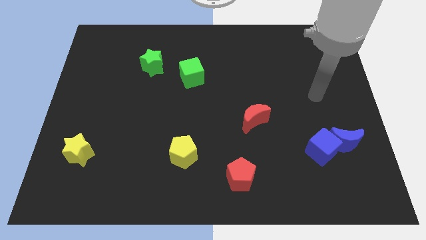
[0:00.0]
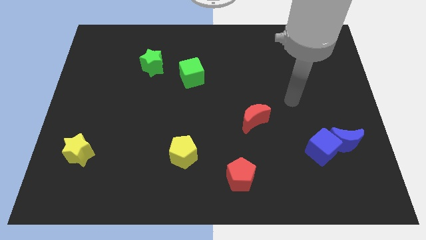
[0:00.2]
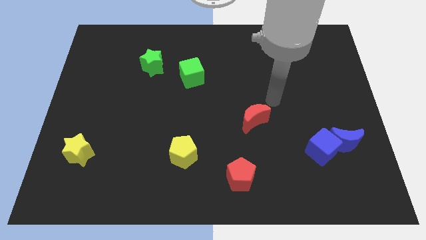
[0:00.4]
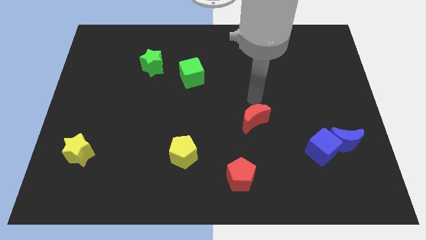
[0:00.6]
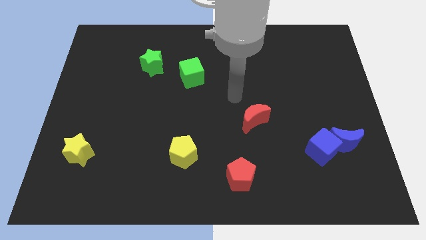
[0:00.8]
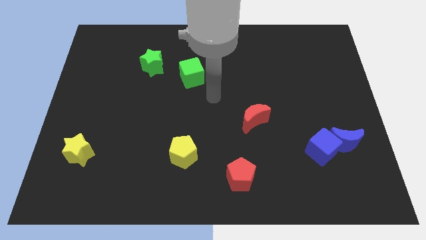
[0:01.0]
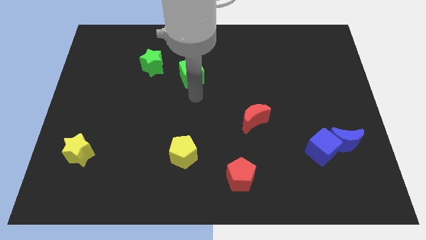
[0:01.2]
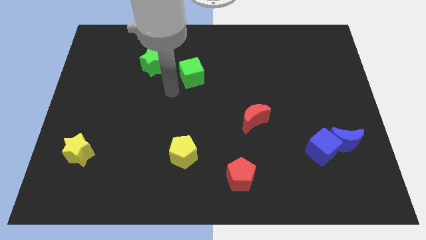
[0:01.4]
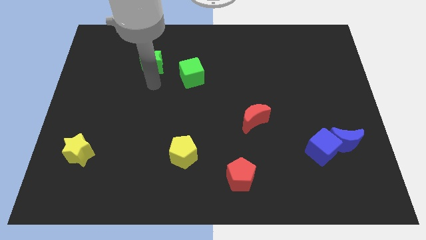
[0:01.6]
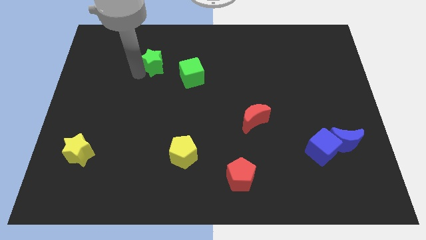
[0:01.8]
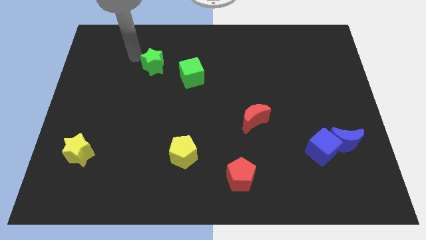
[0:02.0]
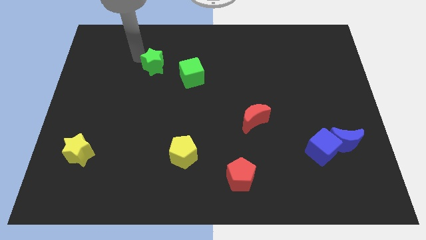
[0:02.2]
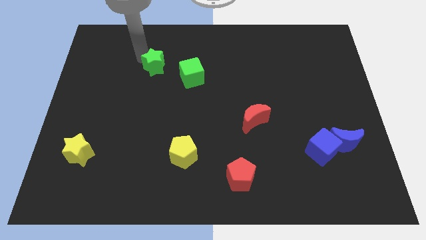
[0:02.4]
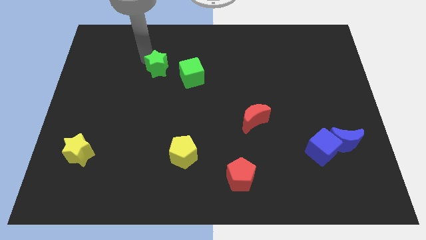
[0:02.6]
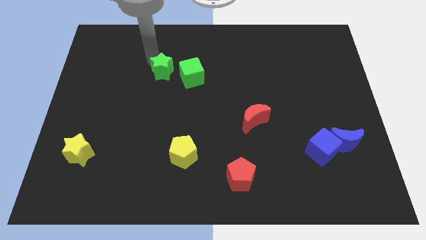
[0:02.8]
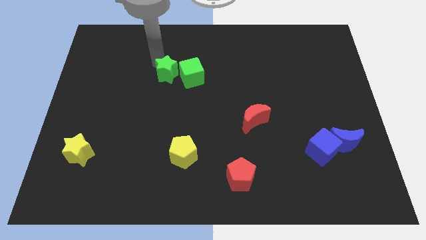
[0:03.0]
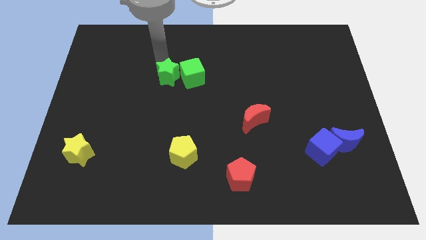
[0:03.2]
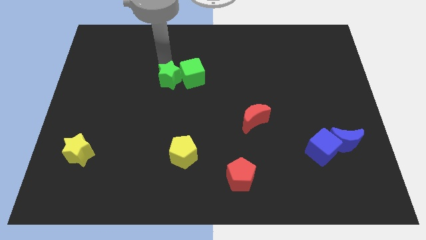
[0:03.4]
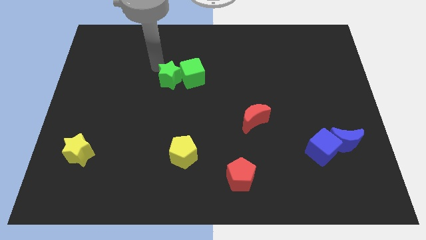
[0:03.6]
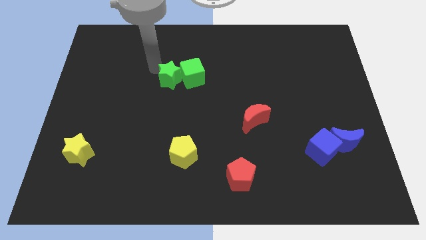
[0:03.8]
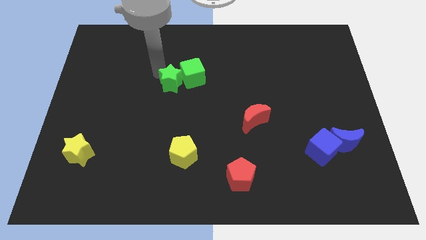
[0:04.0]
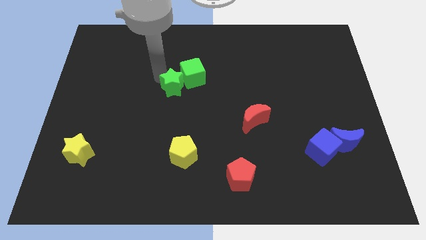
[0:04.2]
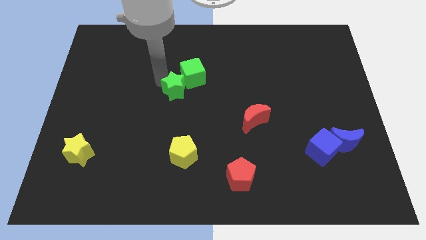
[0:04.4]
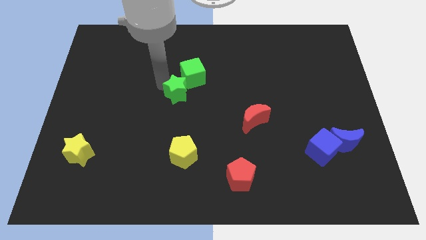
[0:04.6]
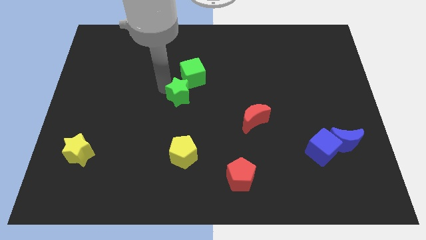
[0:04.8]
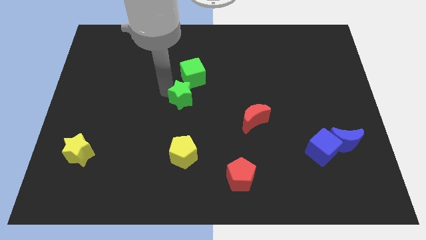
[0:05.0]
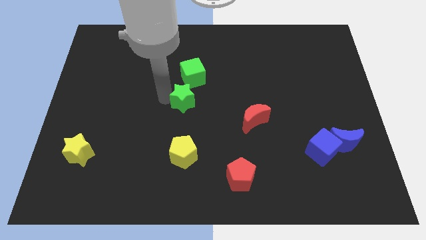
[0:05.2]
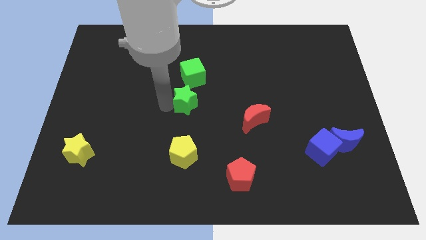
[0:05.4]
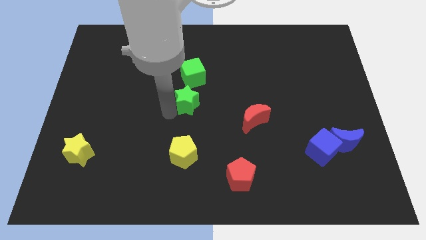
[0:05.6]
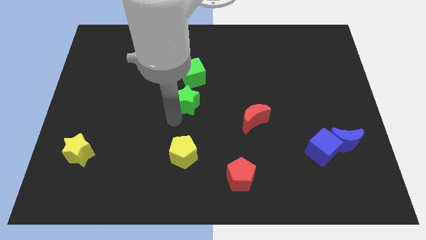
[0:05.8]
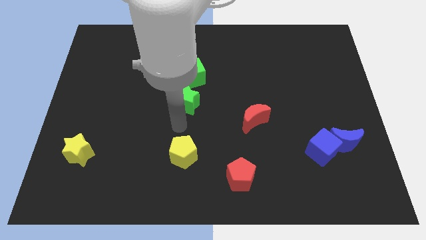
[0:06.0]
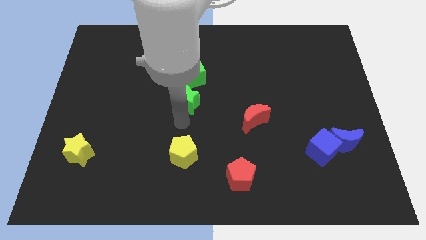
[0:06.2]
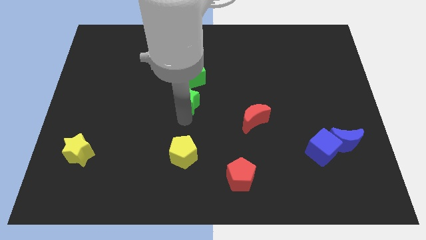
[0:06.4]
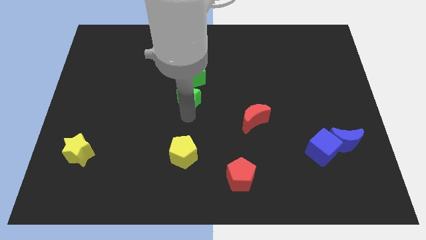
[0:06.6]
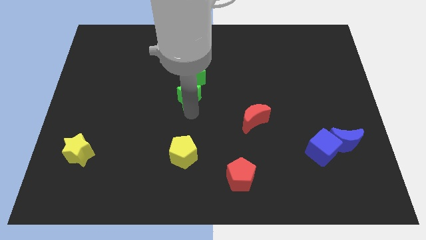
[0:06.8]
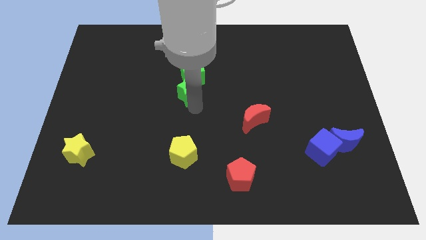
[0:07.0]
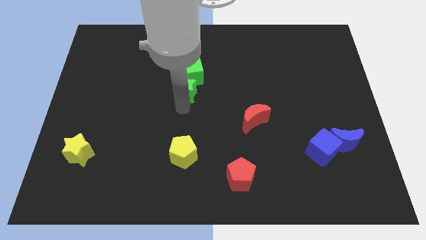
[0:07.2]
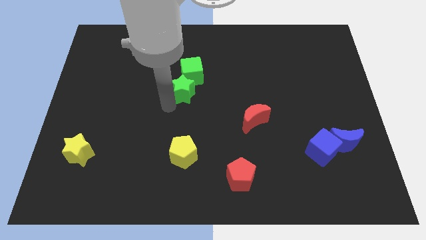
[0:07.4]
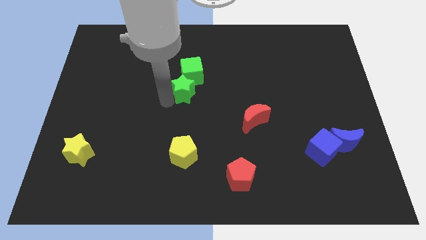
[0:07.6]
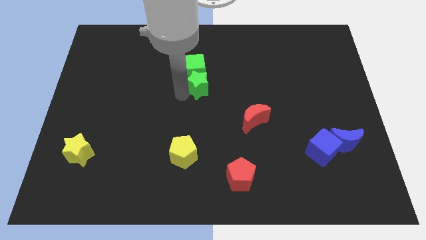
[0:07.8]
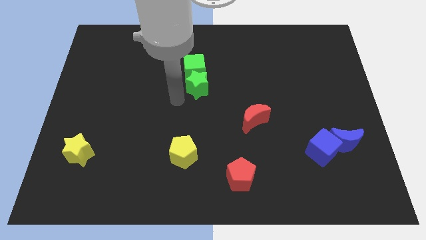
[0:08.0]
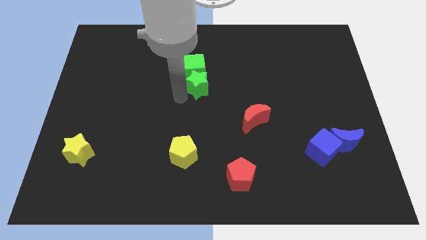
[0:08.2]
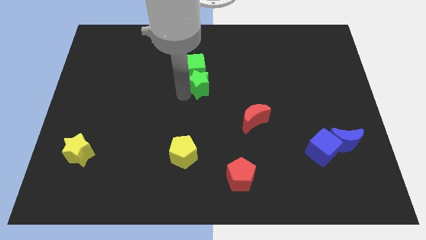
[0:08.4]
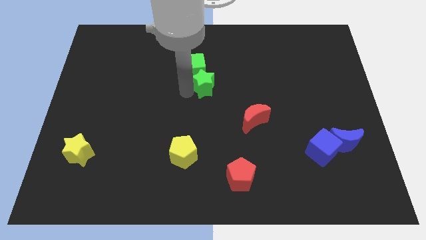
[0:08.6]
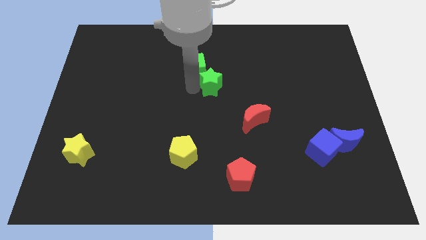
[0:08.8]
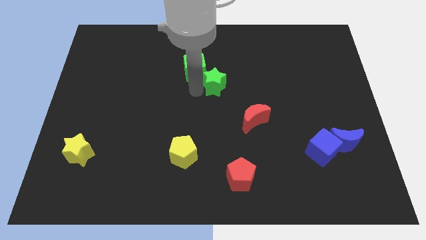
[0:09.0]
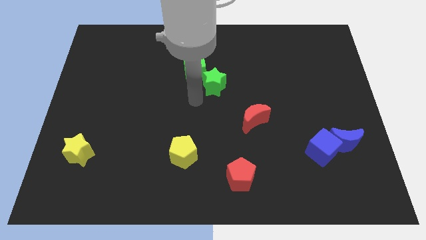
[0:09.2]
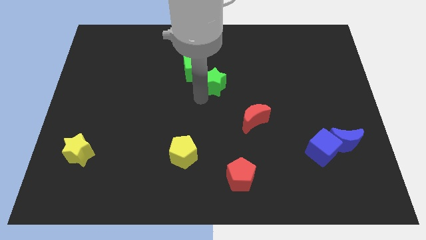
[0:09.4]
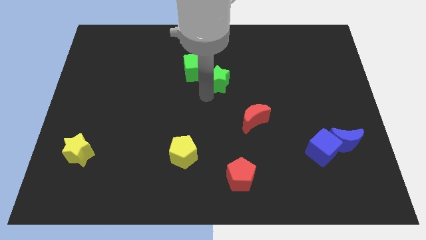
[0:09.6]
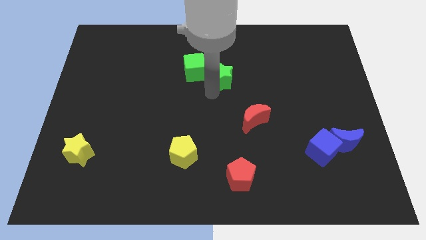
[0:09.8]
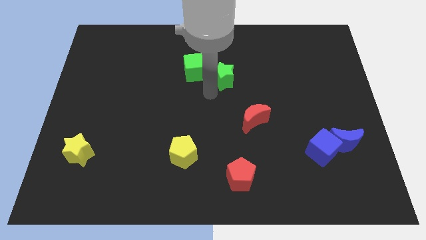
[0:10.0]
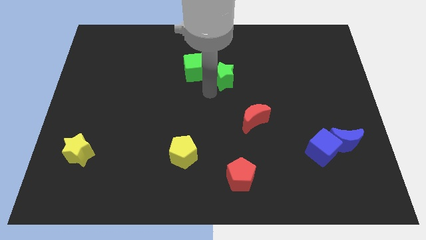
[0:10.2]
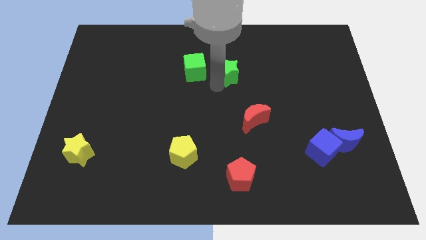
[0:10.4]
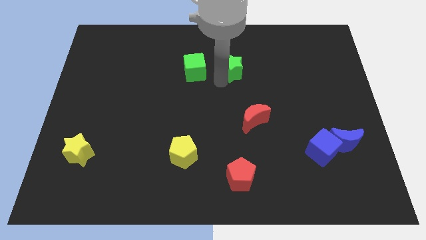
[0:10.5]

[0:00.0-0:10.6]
slide the green star right

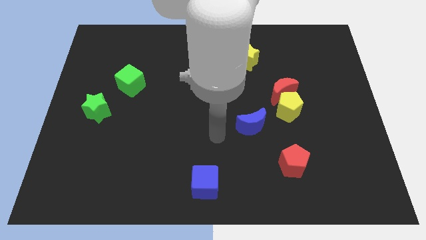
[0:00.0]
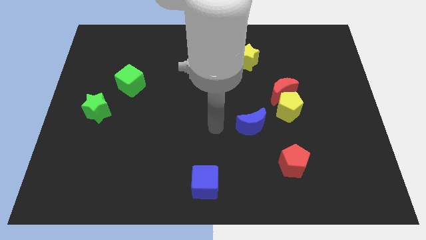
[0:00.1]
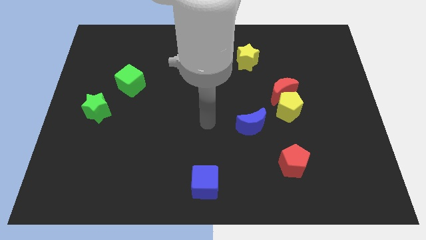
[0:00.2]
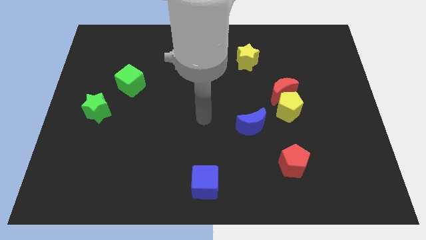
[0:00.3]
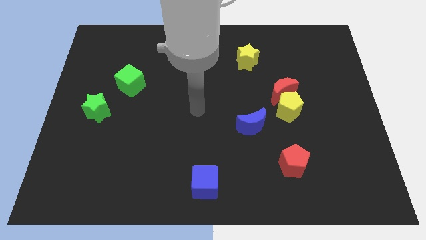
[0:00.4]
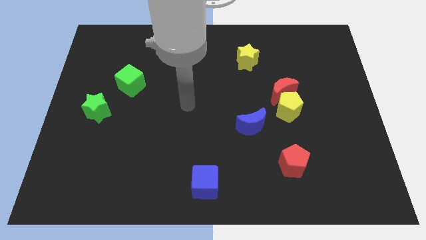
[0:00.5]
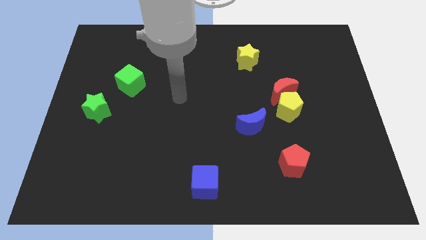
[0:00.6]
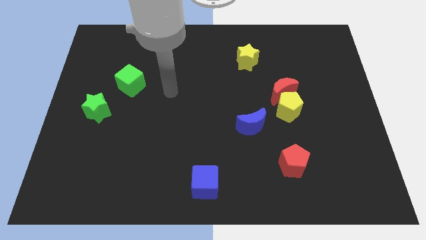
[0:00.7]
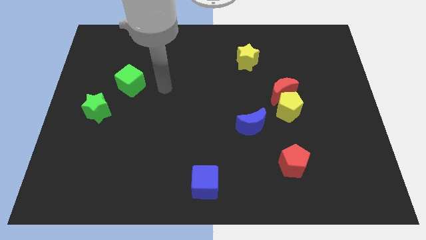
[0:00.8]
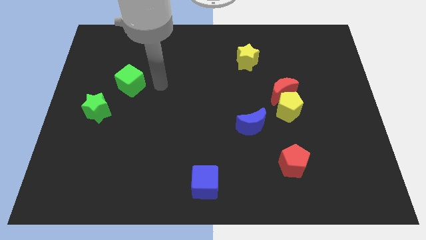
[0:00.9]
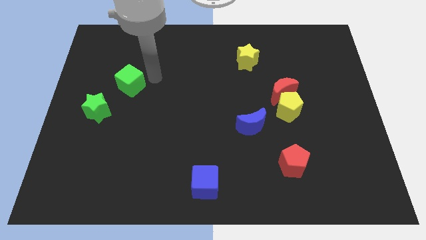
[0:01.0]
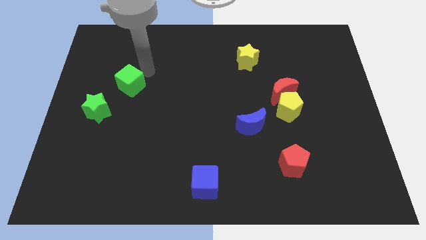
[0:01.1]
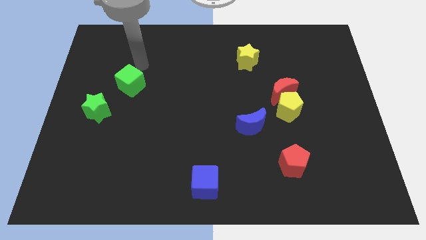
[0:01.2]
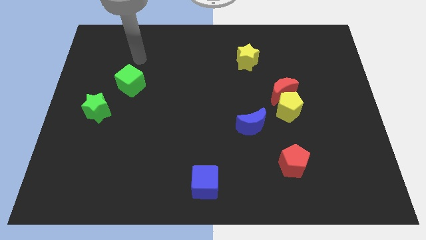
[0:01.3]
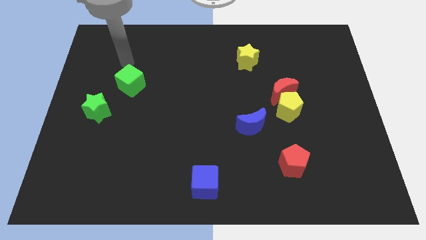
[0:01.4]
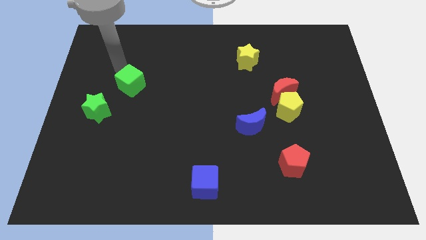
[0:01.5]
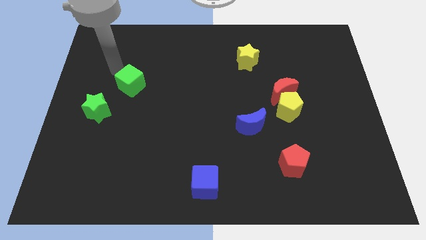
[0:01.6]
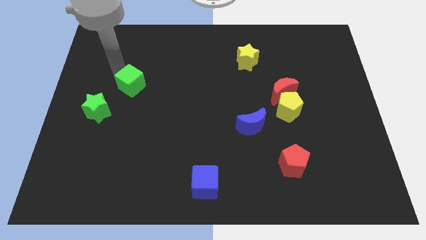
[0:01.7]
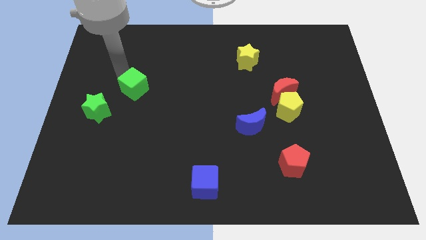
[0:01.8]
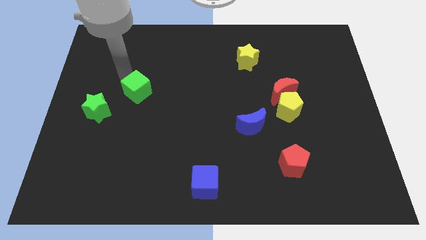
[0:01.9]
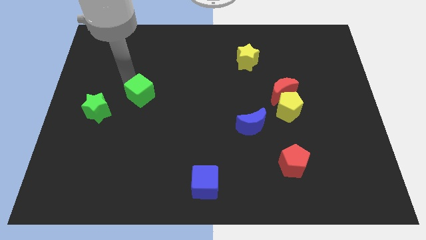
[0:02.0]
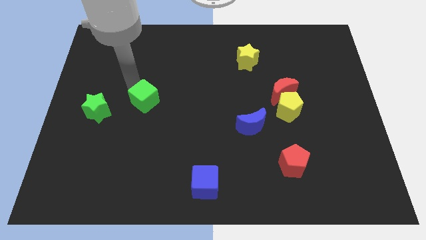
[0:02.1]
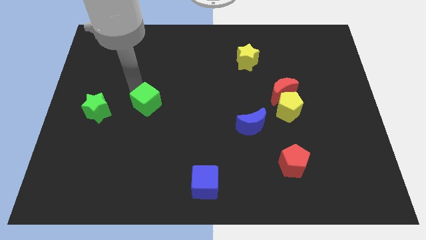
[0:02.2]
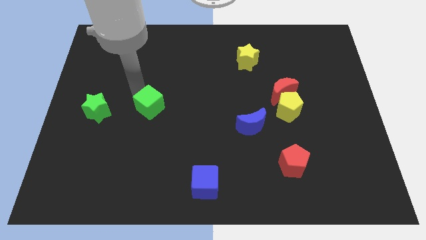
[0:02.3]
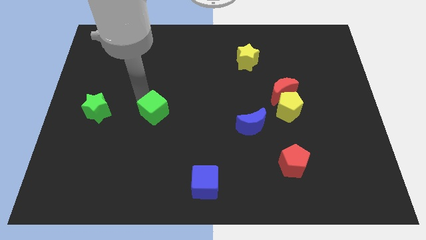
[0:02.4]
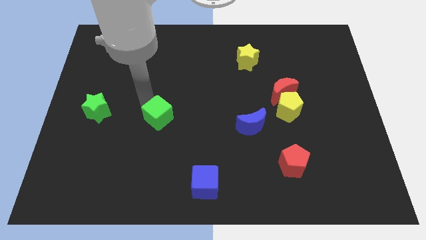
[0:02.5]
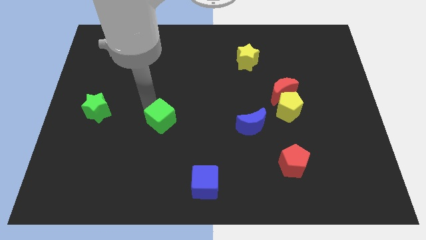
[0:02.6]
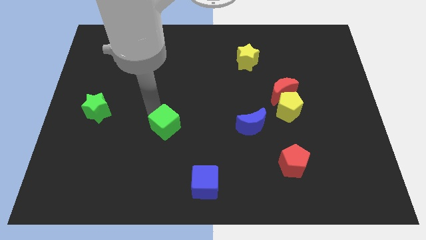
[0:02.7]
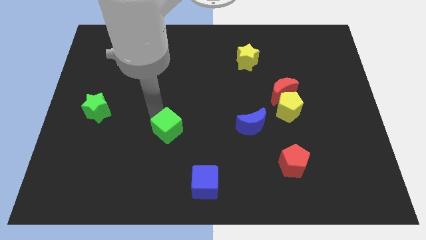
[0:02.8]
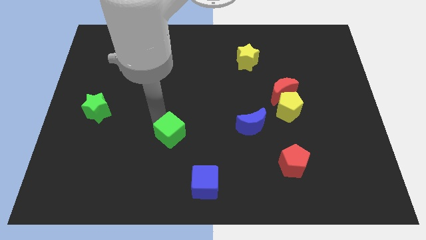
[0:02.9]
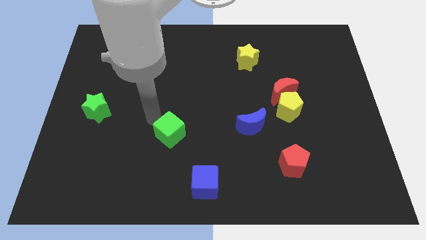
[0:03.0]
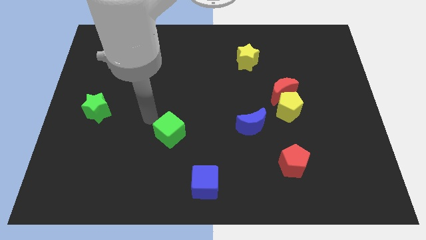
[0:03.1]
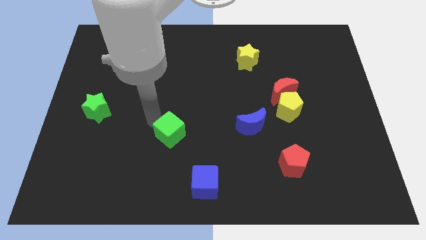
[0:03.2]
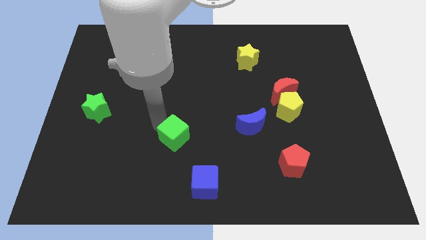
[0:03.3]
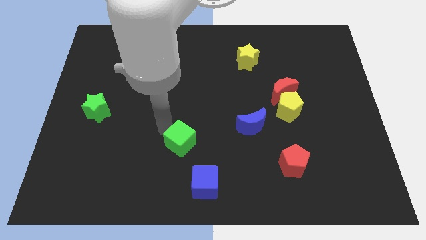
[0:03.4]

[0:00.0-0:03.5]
slide the green cube downwards and to the right diagonally
